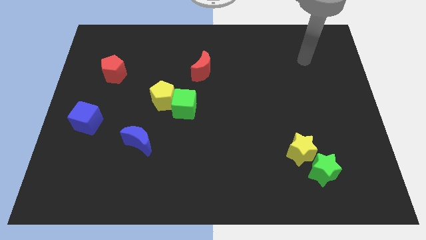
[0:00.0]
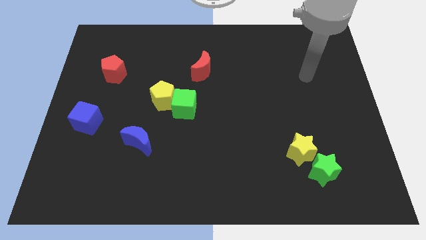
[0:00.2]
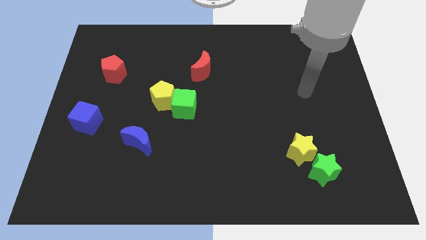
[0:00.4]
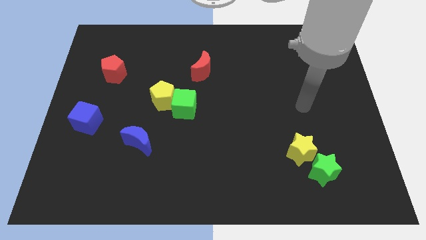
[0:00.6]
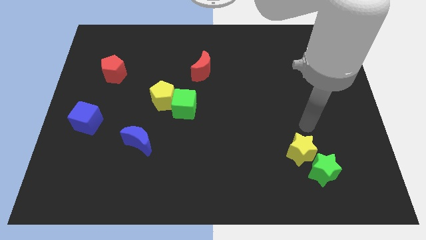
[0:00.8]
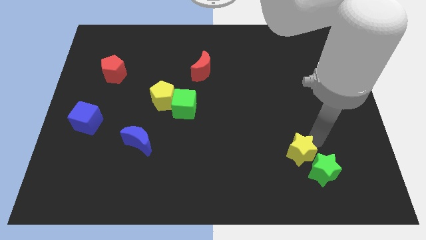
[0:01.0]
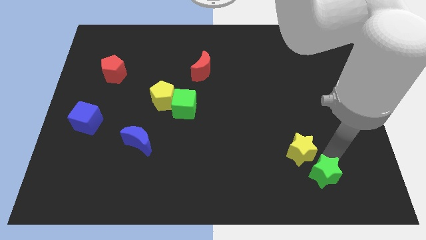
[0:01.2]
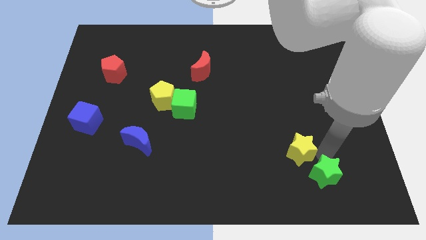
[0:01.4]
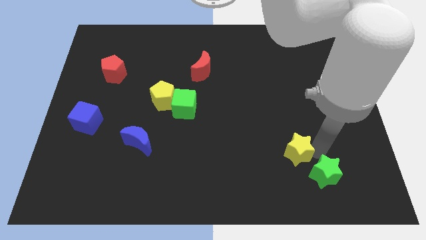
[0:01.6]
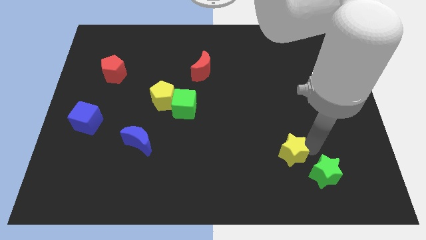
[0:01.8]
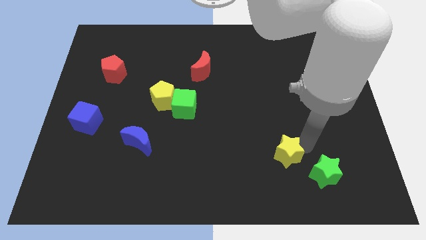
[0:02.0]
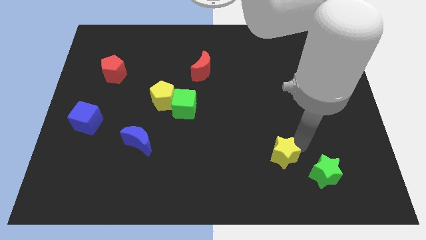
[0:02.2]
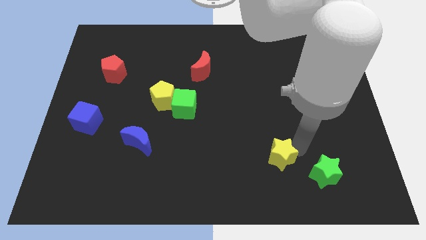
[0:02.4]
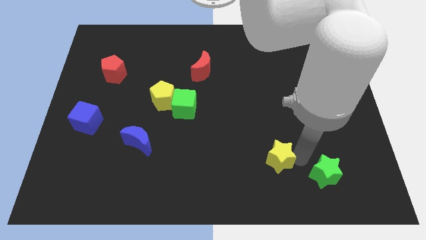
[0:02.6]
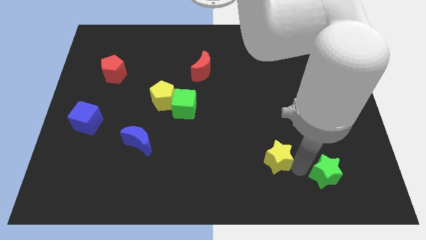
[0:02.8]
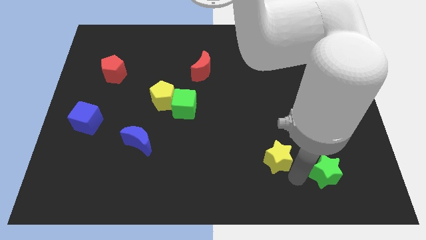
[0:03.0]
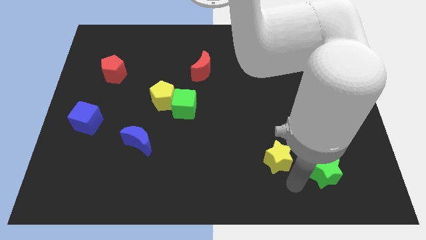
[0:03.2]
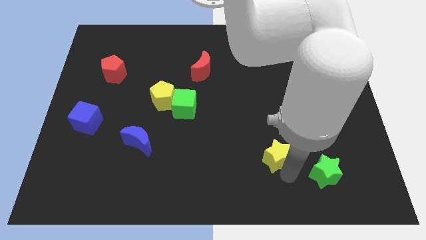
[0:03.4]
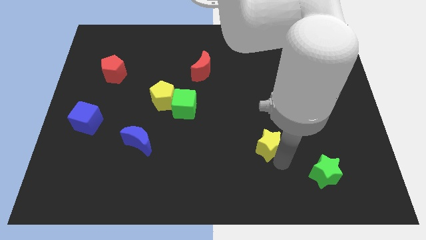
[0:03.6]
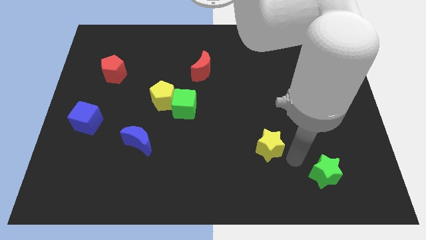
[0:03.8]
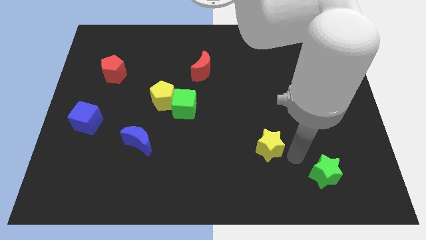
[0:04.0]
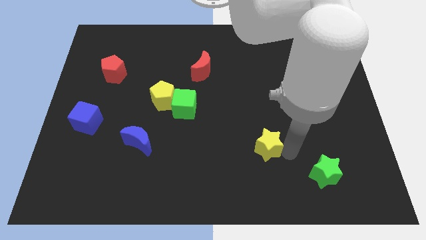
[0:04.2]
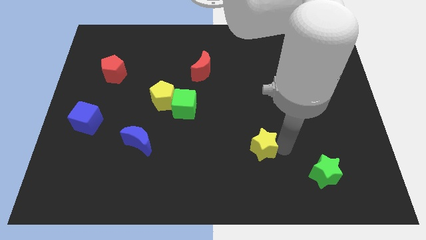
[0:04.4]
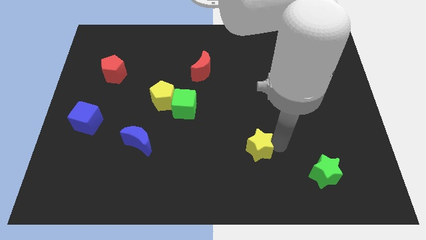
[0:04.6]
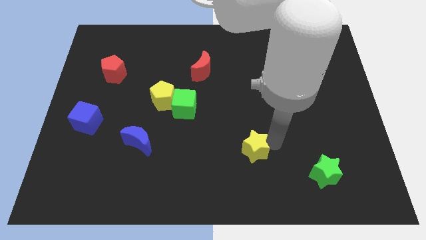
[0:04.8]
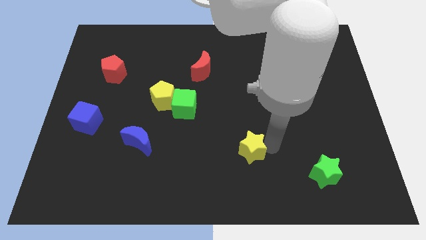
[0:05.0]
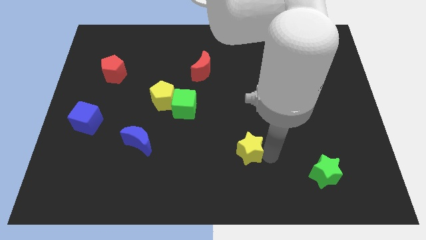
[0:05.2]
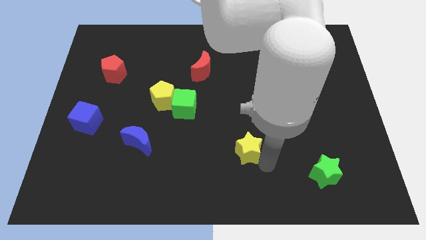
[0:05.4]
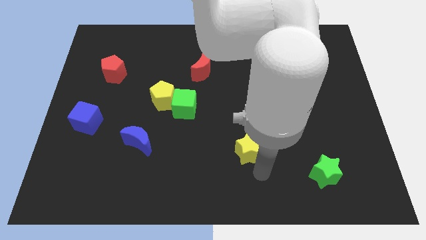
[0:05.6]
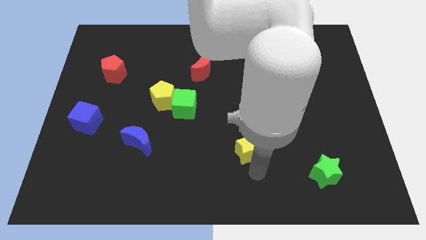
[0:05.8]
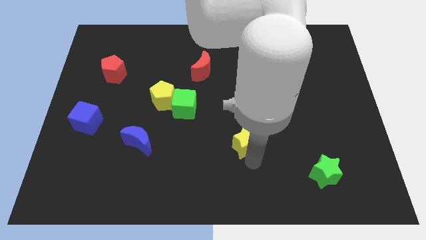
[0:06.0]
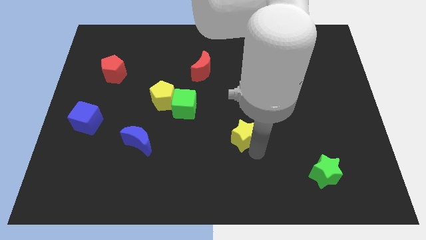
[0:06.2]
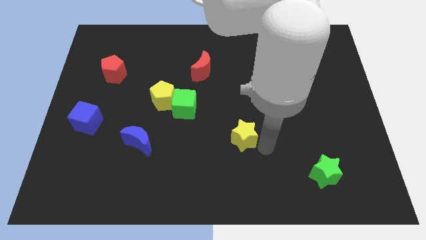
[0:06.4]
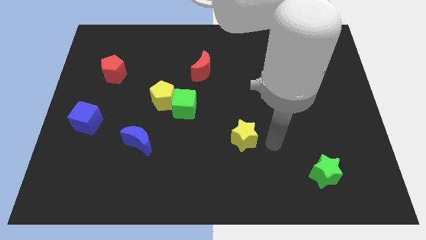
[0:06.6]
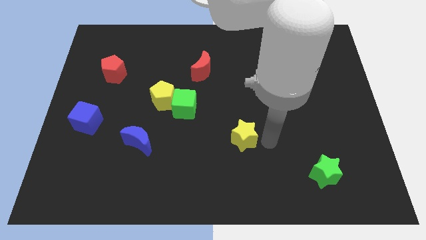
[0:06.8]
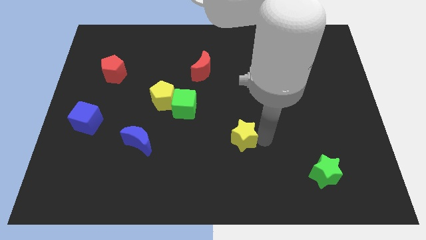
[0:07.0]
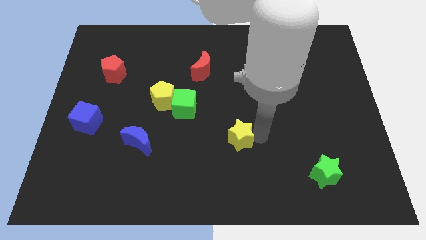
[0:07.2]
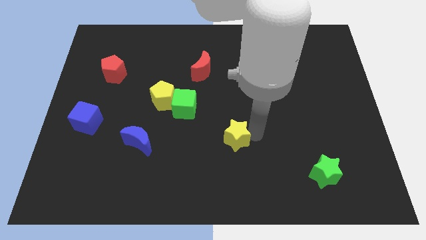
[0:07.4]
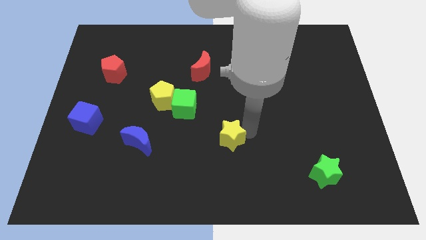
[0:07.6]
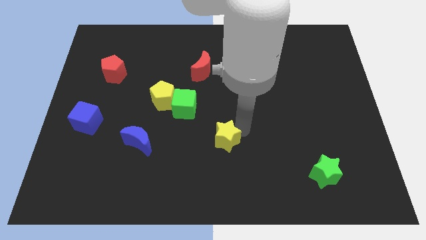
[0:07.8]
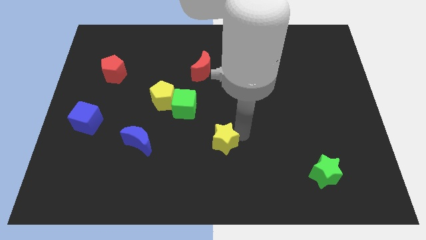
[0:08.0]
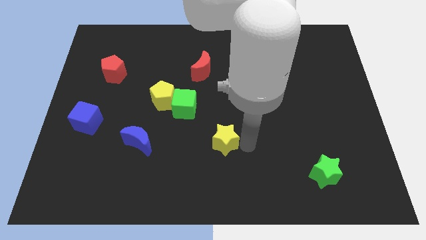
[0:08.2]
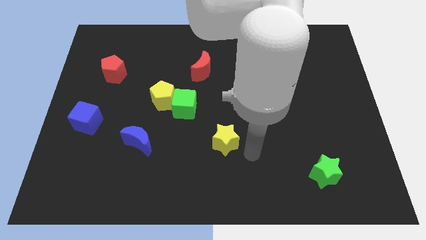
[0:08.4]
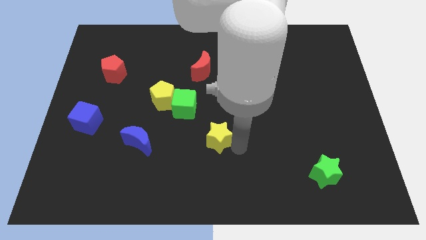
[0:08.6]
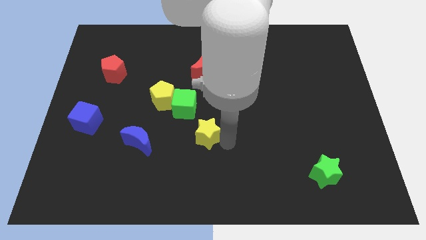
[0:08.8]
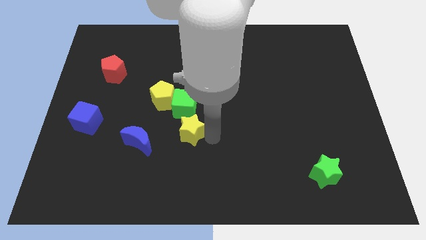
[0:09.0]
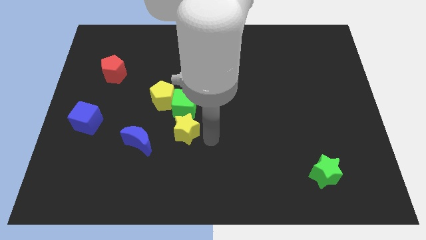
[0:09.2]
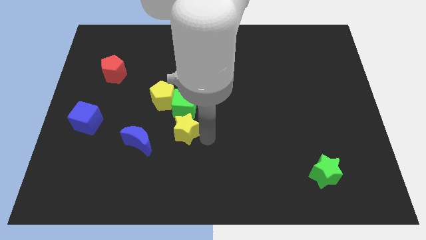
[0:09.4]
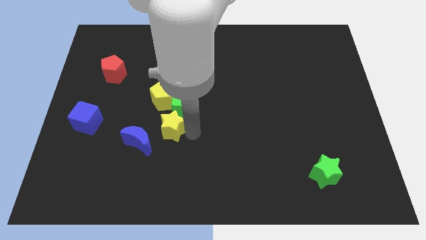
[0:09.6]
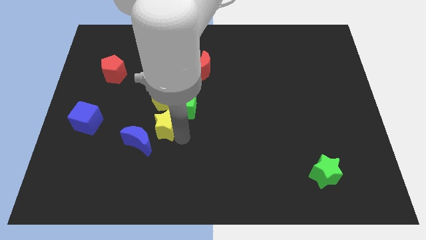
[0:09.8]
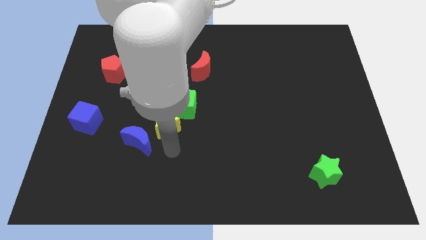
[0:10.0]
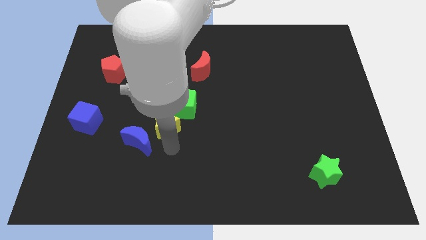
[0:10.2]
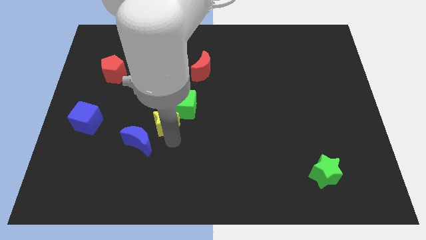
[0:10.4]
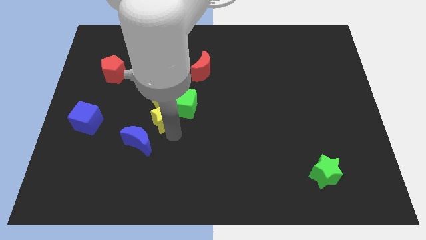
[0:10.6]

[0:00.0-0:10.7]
move the yellow star towards the yellow pentagon

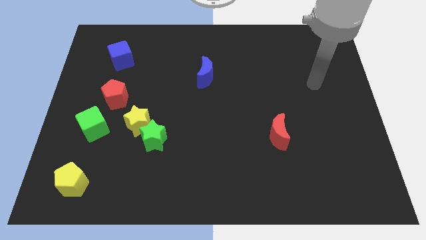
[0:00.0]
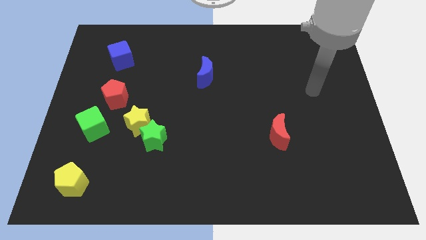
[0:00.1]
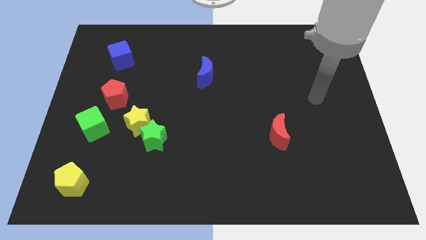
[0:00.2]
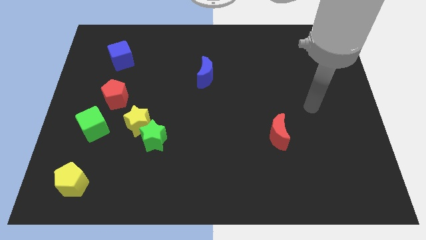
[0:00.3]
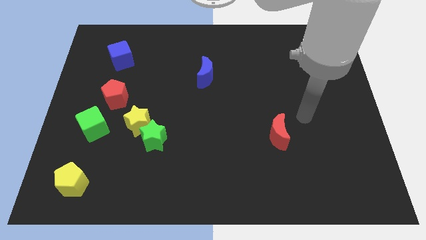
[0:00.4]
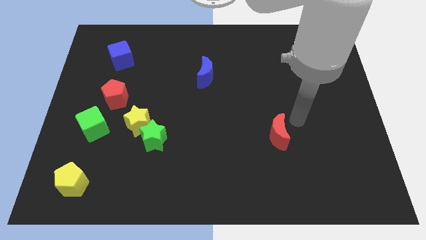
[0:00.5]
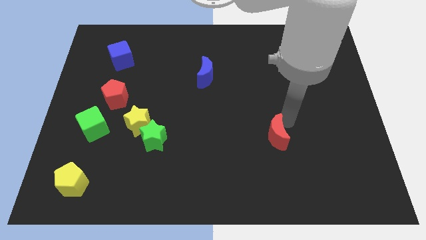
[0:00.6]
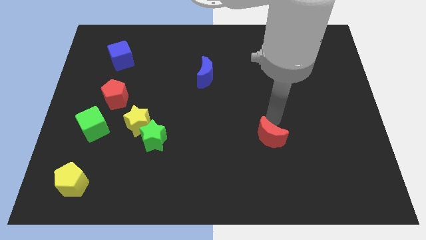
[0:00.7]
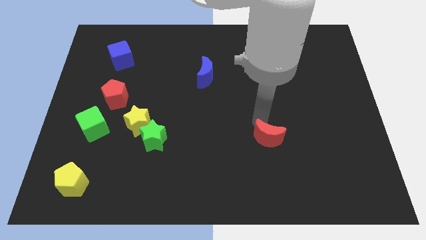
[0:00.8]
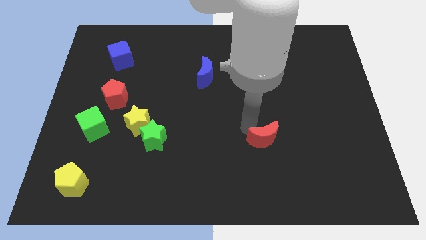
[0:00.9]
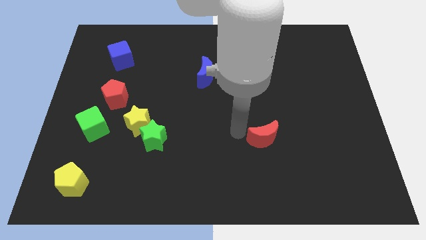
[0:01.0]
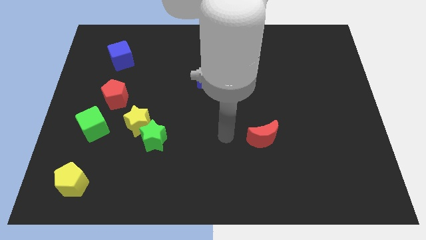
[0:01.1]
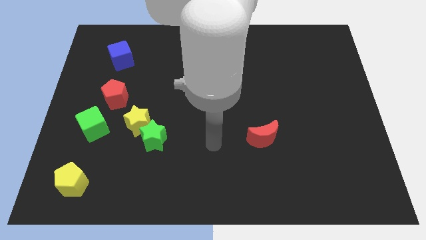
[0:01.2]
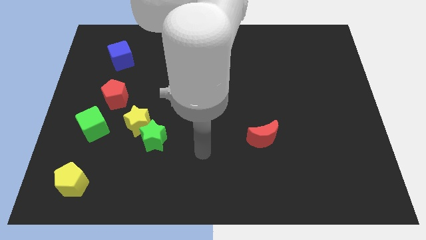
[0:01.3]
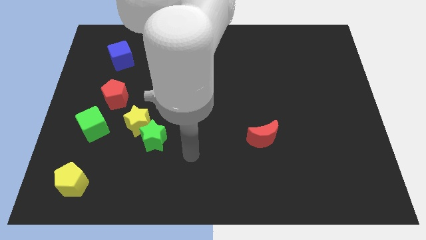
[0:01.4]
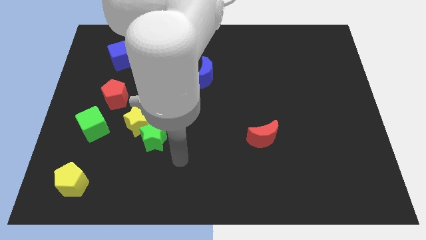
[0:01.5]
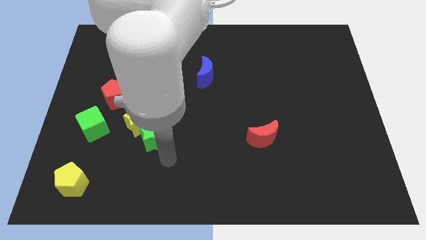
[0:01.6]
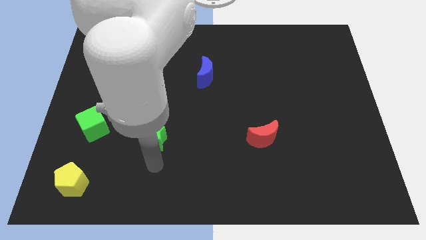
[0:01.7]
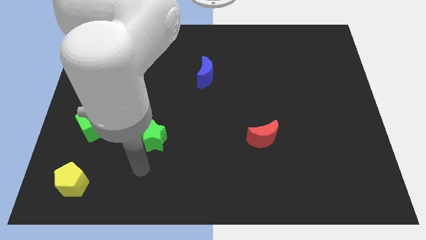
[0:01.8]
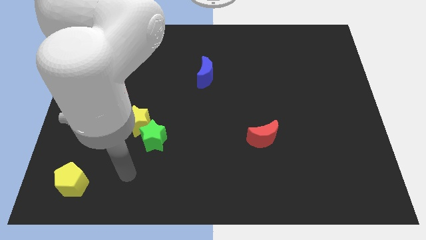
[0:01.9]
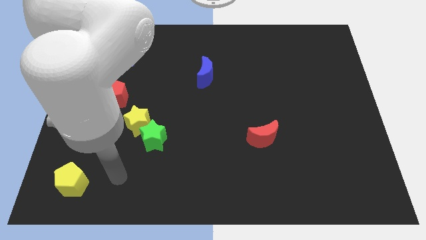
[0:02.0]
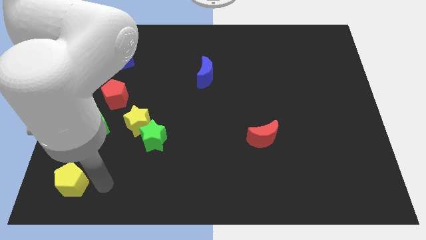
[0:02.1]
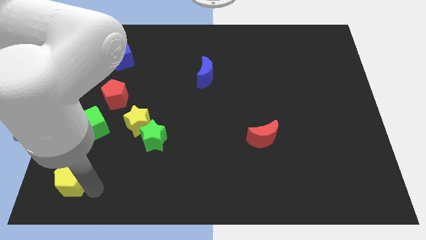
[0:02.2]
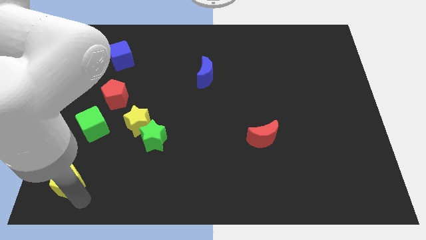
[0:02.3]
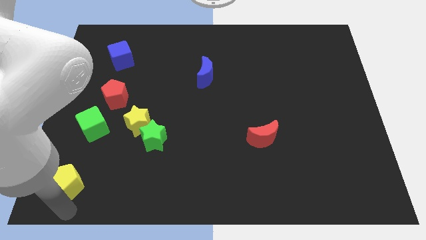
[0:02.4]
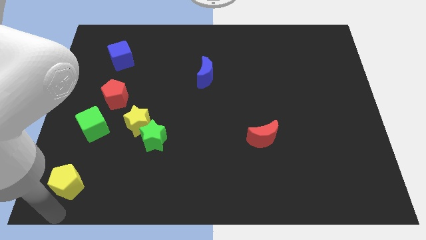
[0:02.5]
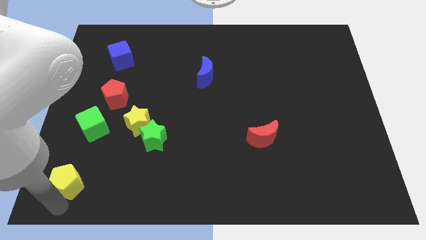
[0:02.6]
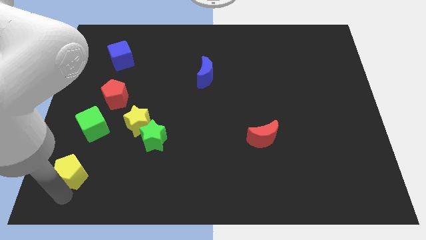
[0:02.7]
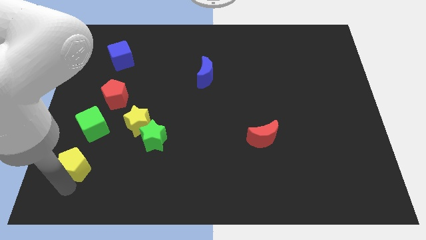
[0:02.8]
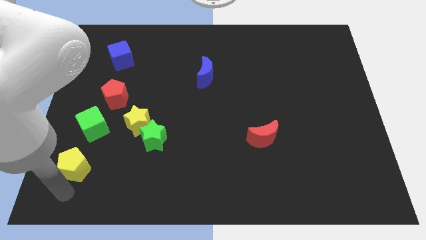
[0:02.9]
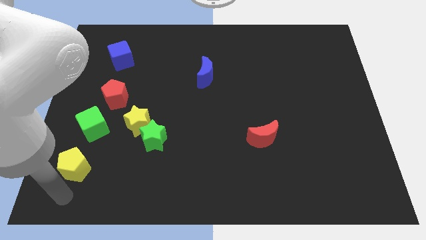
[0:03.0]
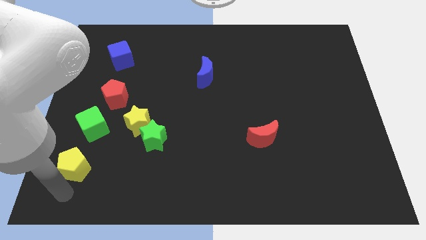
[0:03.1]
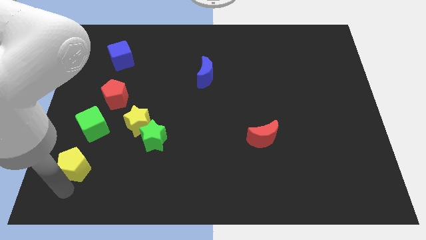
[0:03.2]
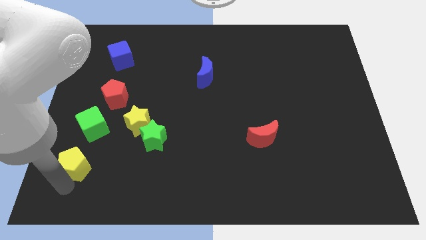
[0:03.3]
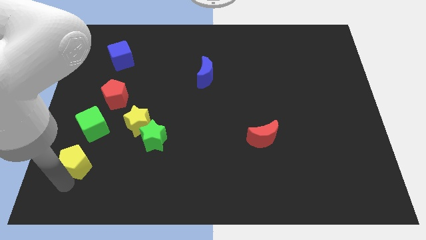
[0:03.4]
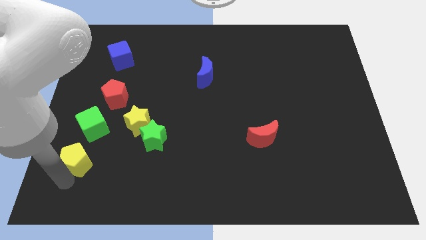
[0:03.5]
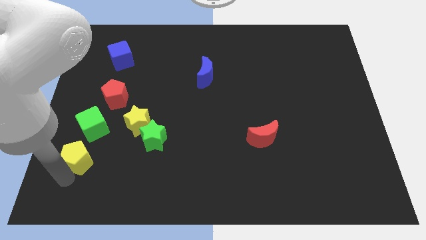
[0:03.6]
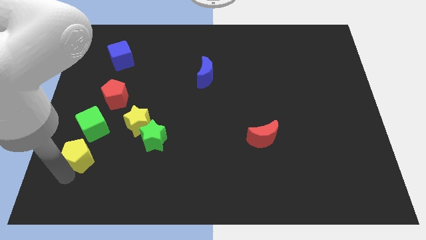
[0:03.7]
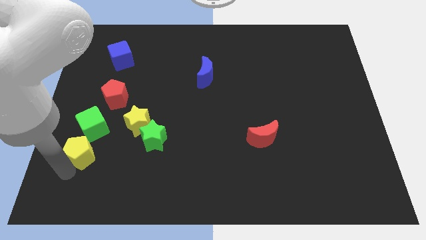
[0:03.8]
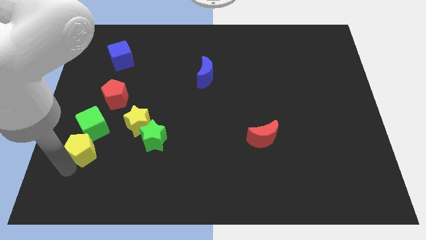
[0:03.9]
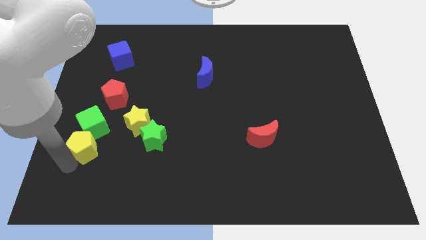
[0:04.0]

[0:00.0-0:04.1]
move the yellow pentagon towards the green cube
